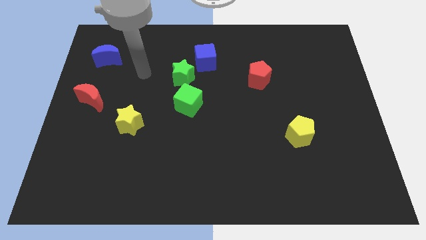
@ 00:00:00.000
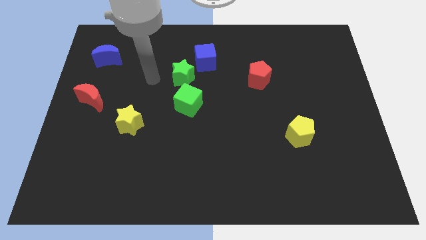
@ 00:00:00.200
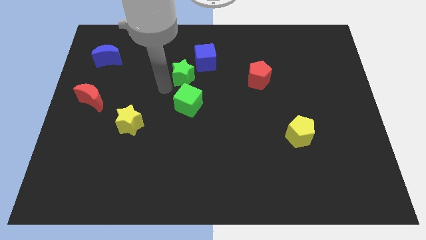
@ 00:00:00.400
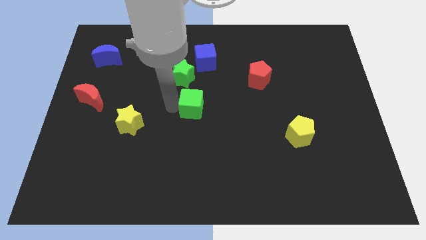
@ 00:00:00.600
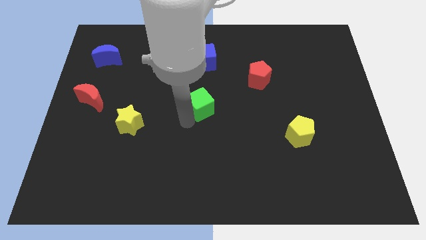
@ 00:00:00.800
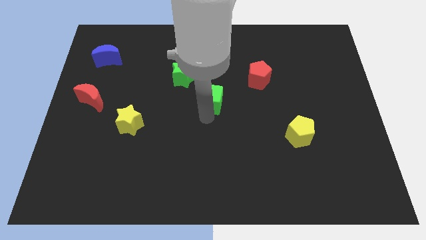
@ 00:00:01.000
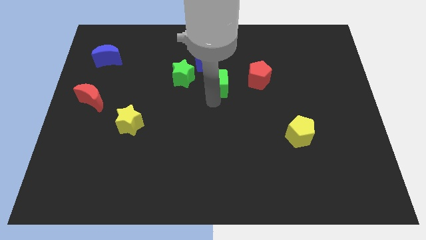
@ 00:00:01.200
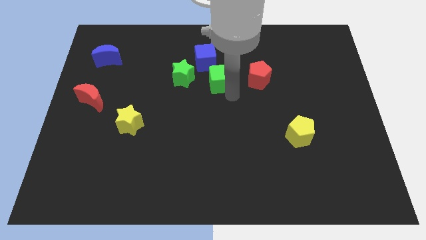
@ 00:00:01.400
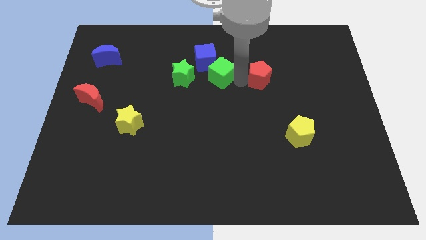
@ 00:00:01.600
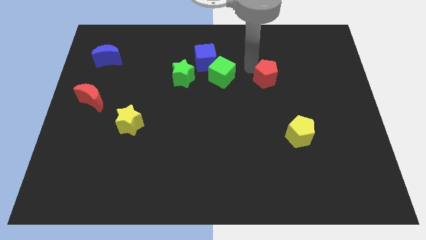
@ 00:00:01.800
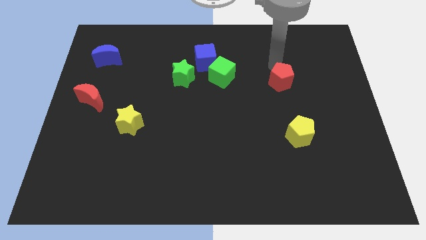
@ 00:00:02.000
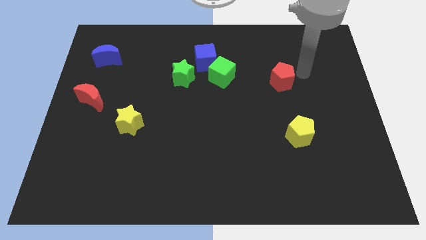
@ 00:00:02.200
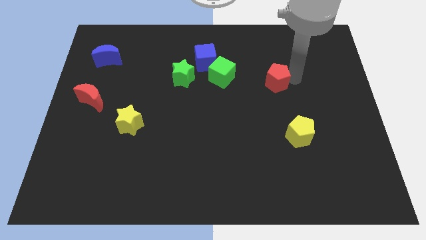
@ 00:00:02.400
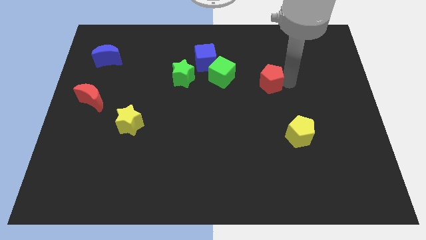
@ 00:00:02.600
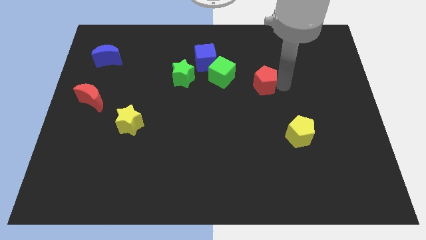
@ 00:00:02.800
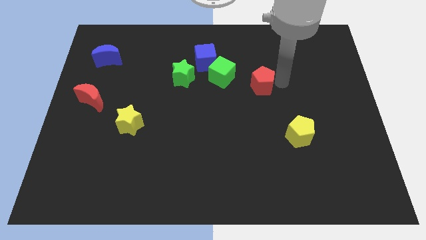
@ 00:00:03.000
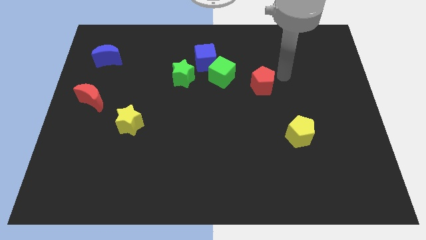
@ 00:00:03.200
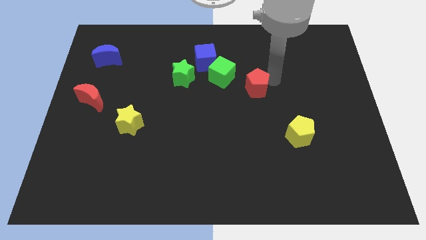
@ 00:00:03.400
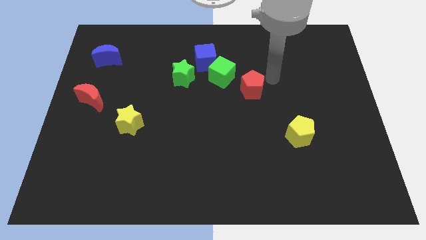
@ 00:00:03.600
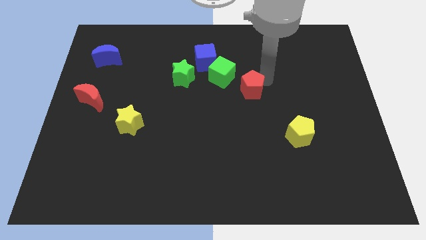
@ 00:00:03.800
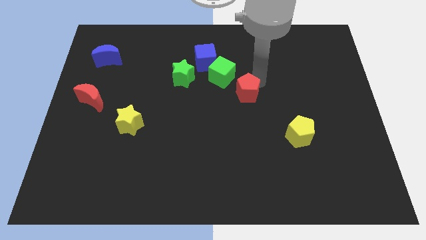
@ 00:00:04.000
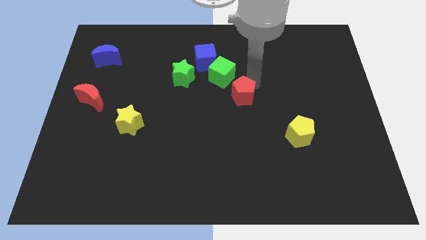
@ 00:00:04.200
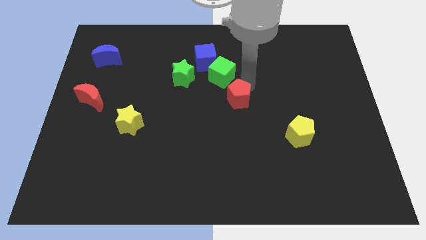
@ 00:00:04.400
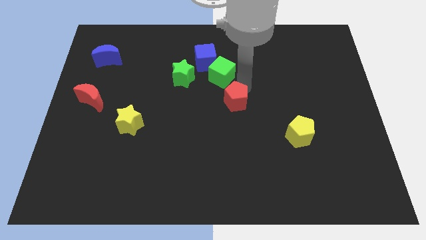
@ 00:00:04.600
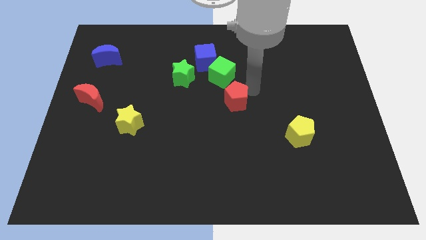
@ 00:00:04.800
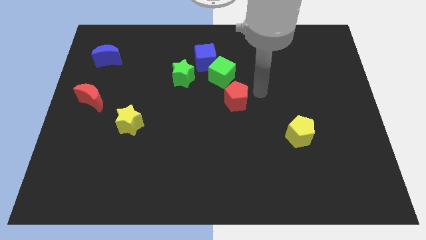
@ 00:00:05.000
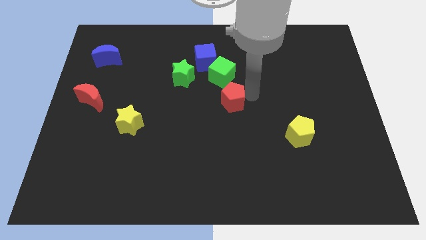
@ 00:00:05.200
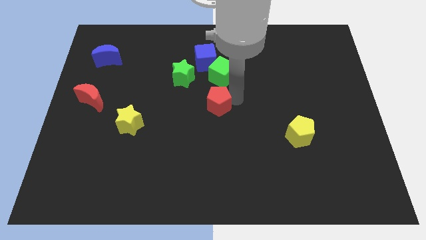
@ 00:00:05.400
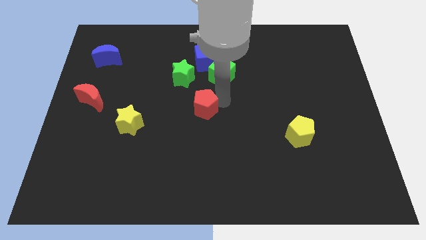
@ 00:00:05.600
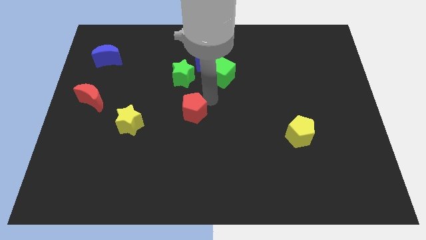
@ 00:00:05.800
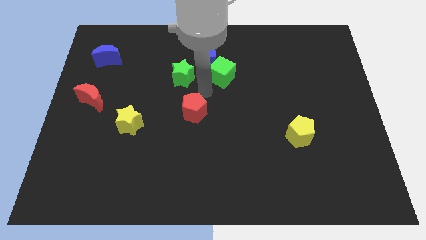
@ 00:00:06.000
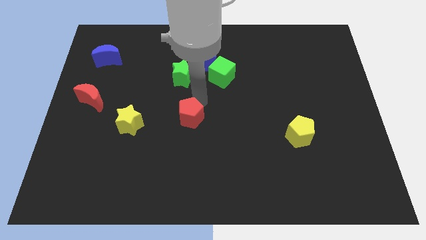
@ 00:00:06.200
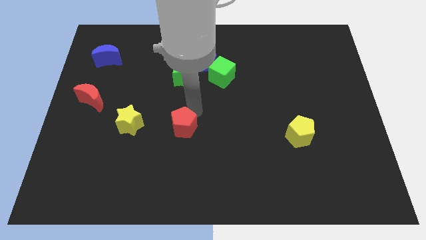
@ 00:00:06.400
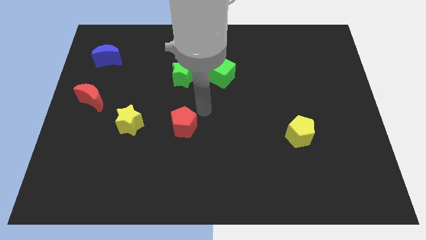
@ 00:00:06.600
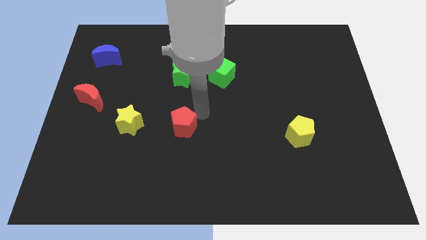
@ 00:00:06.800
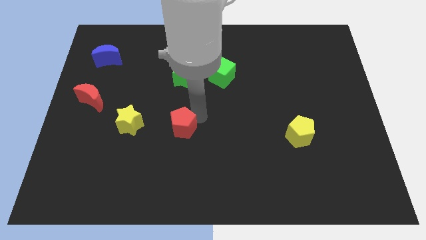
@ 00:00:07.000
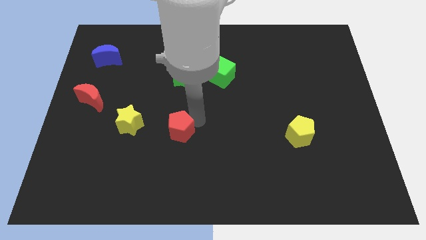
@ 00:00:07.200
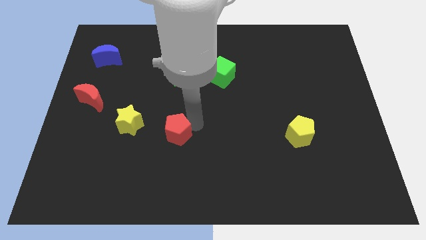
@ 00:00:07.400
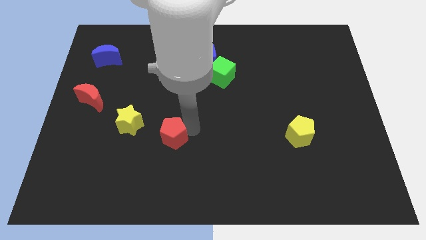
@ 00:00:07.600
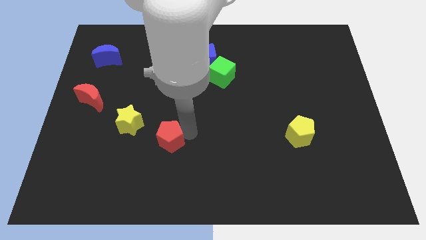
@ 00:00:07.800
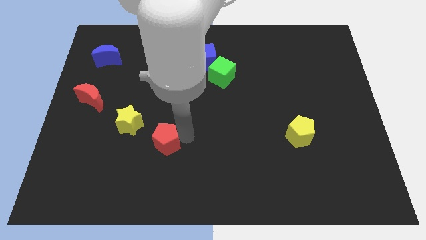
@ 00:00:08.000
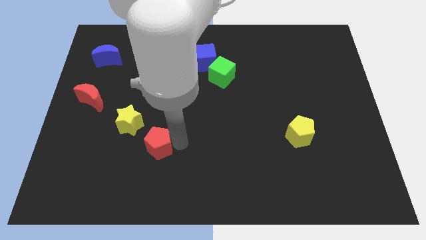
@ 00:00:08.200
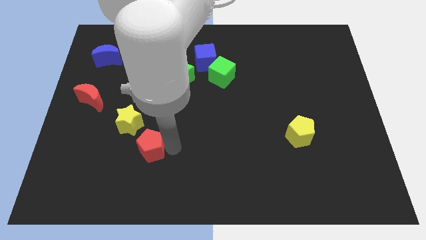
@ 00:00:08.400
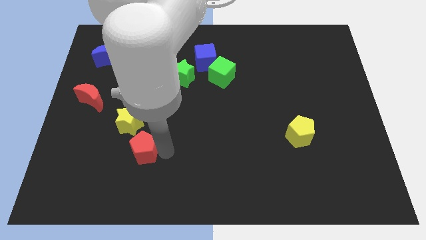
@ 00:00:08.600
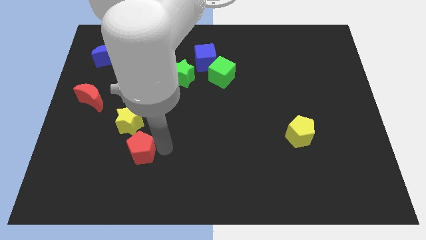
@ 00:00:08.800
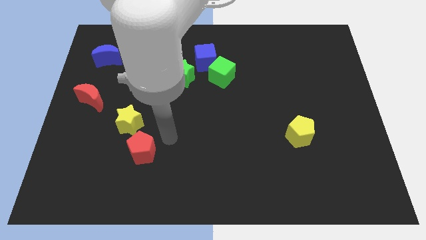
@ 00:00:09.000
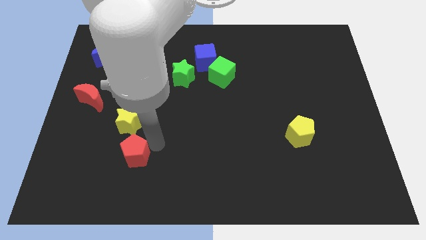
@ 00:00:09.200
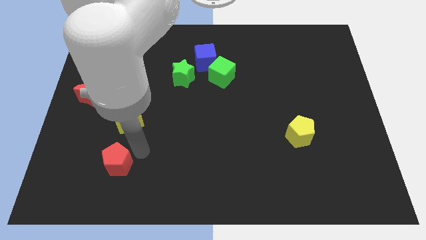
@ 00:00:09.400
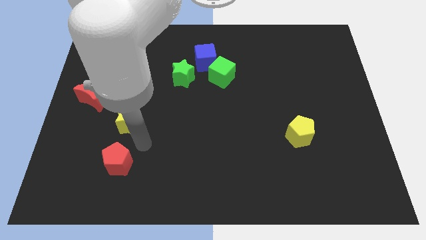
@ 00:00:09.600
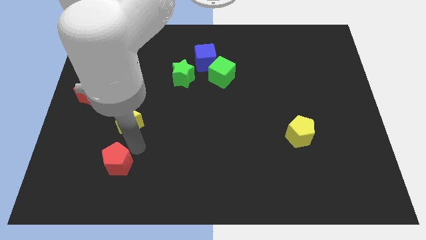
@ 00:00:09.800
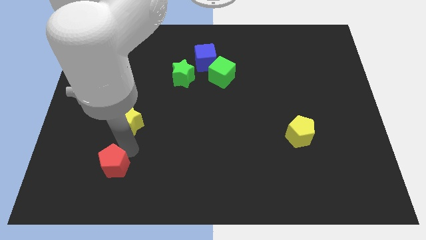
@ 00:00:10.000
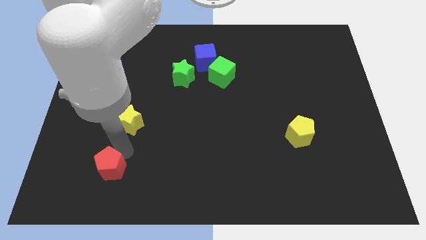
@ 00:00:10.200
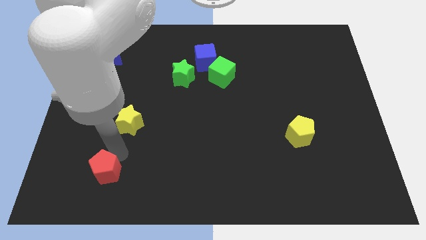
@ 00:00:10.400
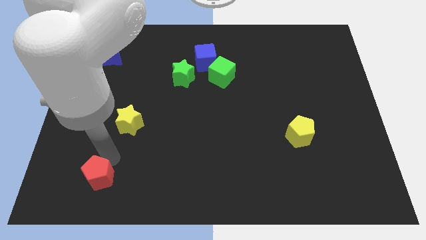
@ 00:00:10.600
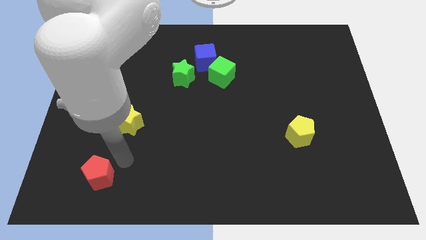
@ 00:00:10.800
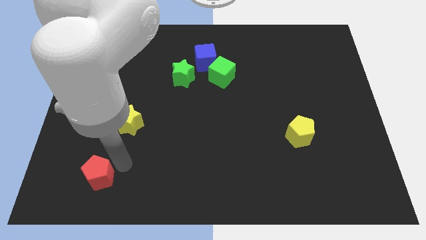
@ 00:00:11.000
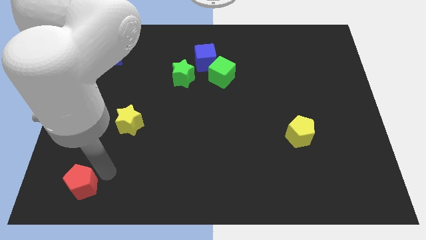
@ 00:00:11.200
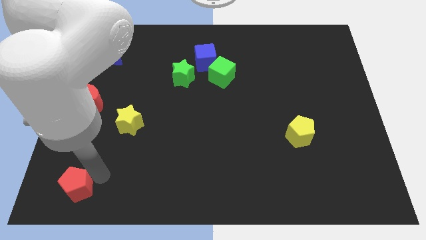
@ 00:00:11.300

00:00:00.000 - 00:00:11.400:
slide the red pentagon to the bottom left corner

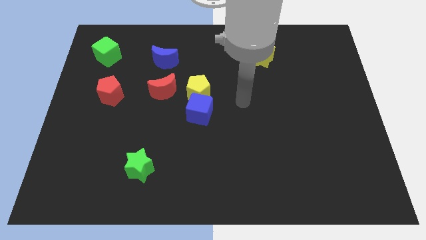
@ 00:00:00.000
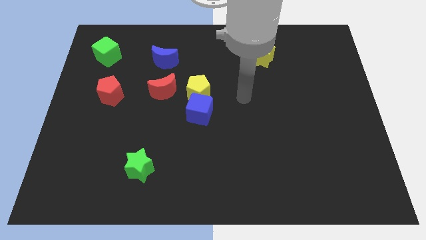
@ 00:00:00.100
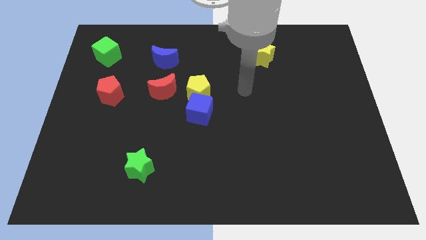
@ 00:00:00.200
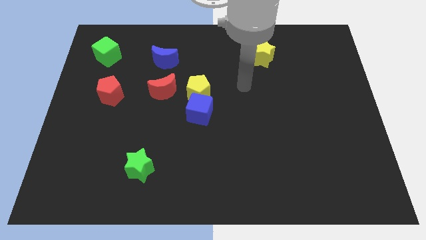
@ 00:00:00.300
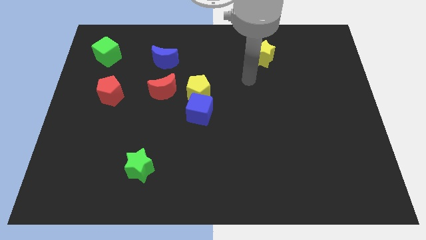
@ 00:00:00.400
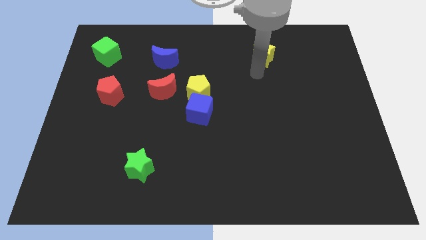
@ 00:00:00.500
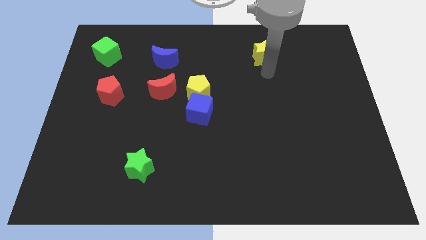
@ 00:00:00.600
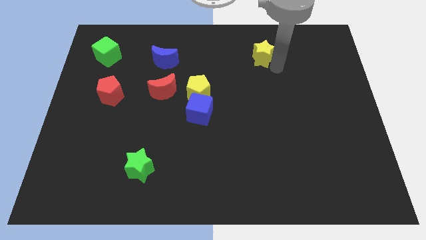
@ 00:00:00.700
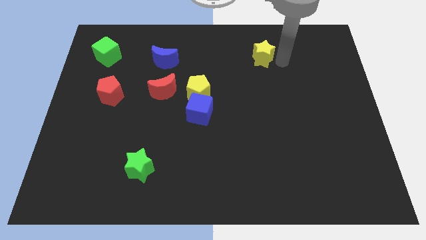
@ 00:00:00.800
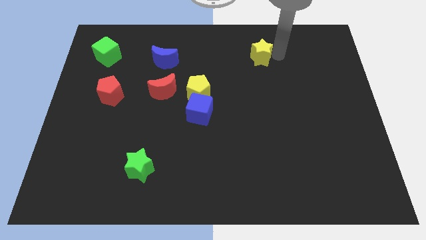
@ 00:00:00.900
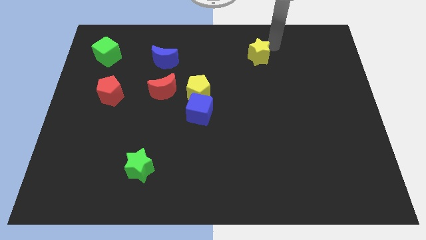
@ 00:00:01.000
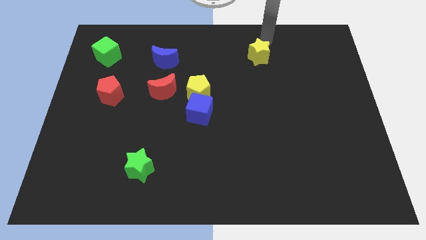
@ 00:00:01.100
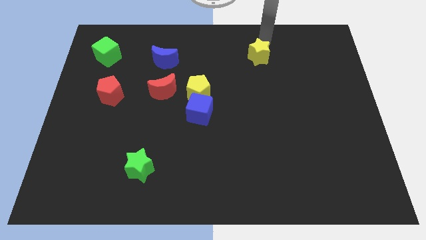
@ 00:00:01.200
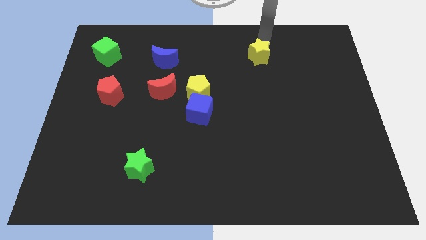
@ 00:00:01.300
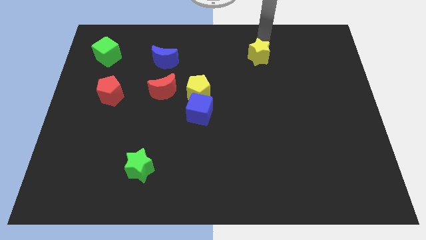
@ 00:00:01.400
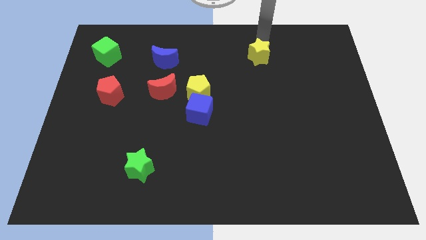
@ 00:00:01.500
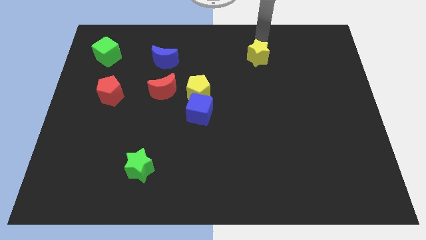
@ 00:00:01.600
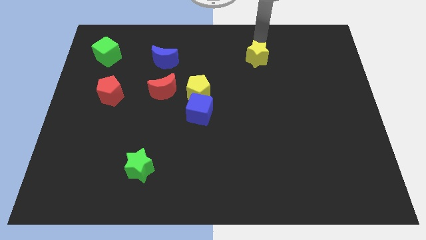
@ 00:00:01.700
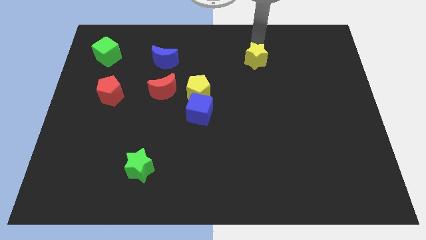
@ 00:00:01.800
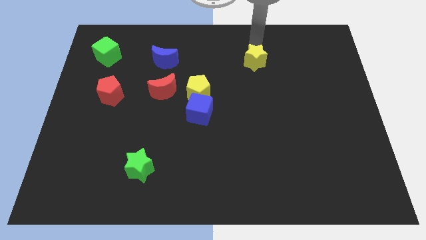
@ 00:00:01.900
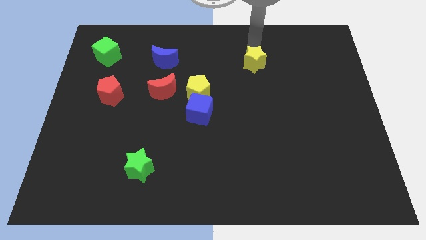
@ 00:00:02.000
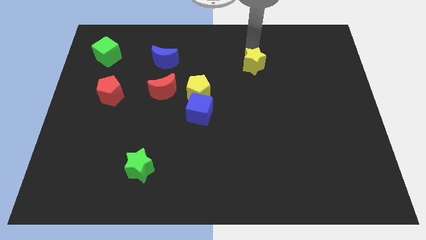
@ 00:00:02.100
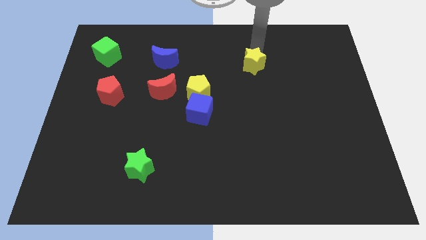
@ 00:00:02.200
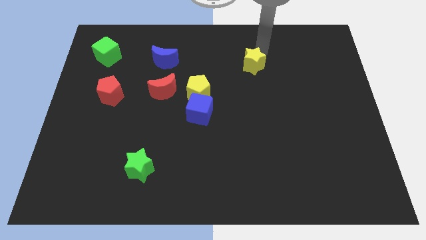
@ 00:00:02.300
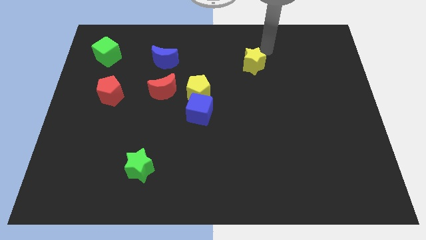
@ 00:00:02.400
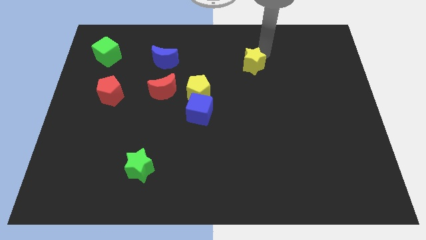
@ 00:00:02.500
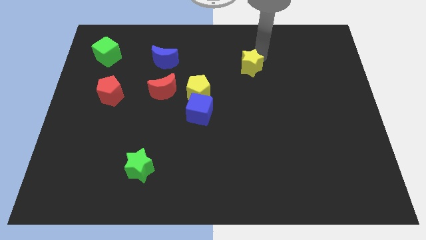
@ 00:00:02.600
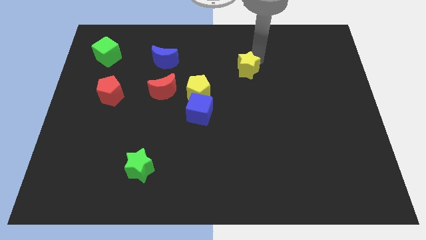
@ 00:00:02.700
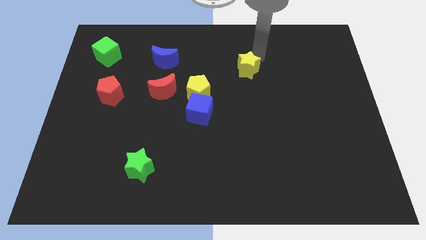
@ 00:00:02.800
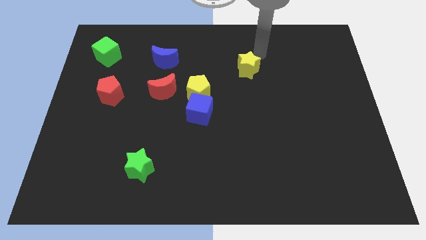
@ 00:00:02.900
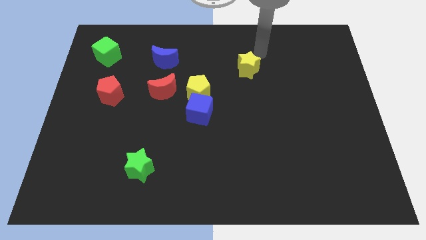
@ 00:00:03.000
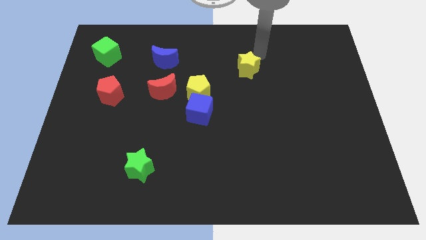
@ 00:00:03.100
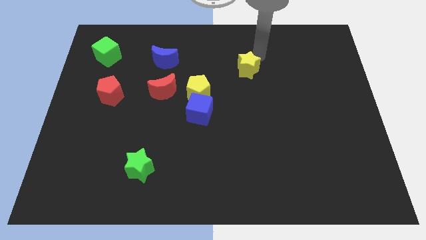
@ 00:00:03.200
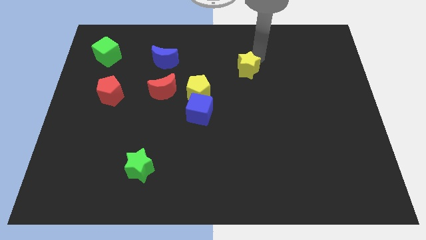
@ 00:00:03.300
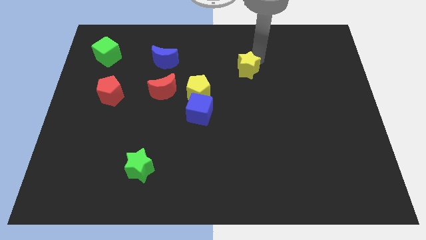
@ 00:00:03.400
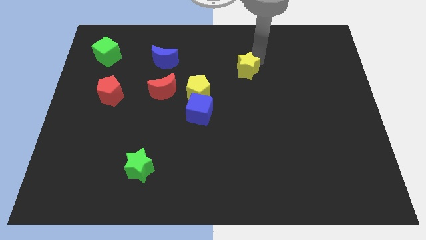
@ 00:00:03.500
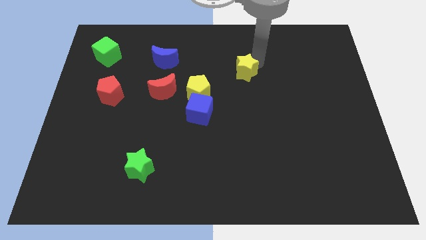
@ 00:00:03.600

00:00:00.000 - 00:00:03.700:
slide the yellow star to the center of the board
